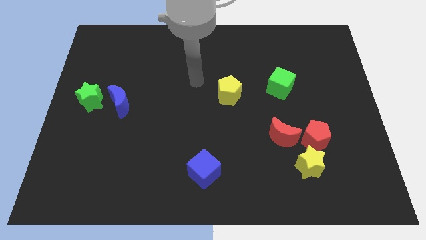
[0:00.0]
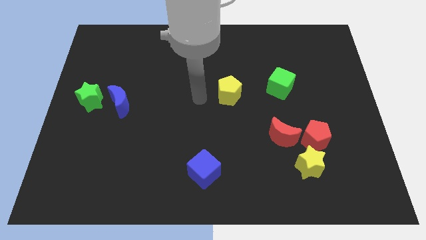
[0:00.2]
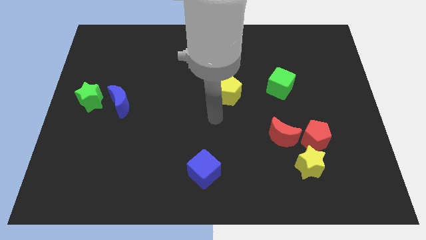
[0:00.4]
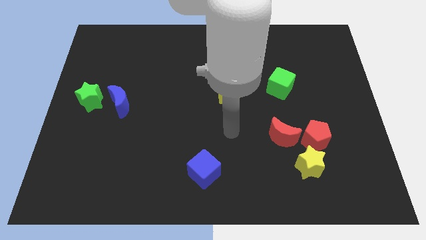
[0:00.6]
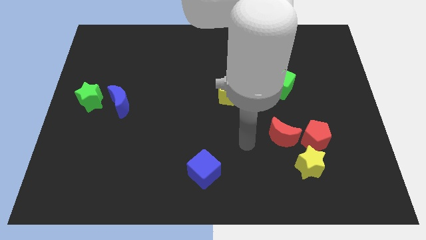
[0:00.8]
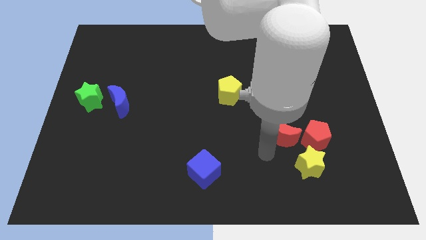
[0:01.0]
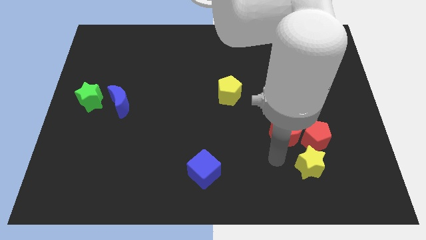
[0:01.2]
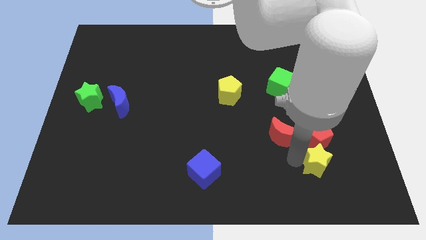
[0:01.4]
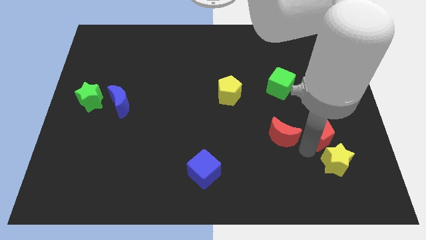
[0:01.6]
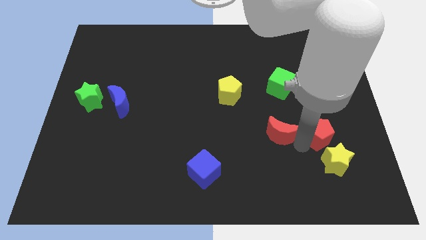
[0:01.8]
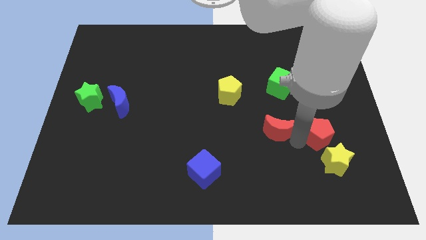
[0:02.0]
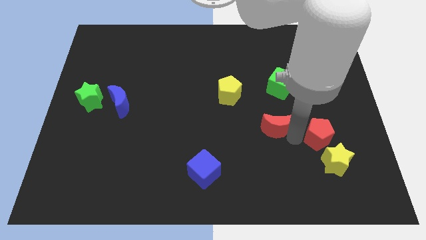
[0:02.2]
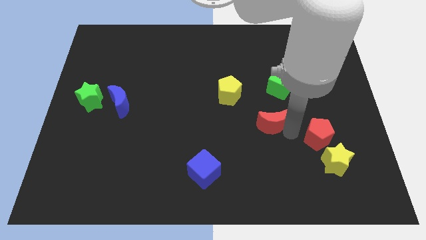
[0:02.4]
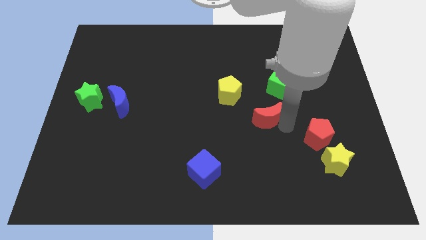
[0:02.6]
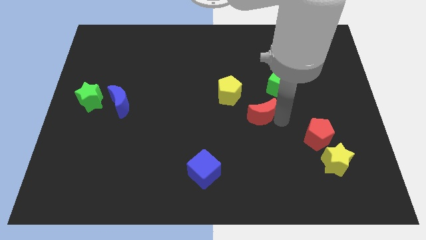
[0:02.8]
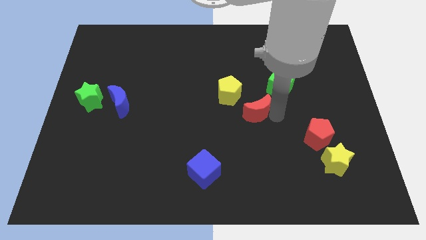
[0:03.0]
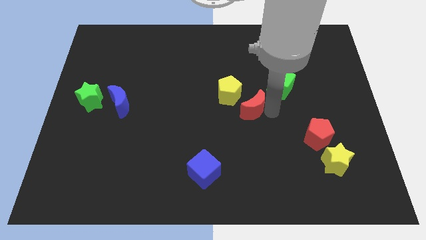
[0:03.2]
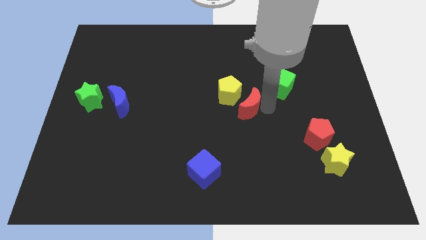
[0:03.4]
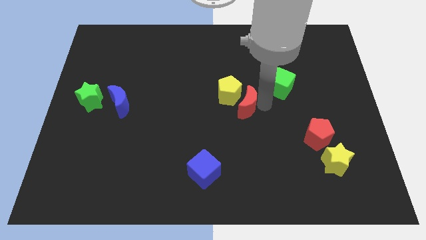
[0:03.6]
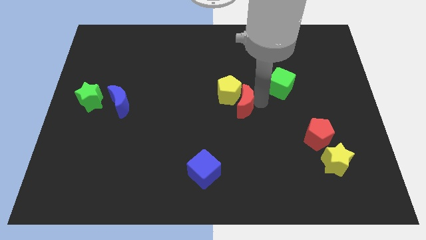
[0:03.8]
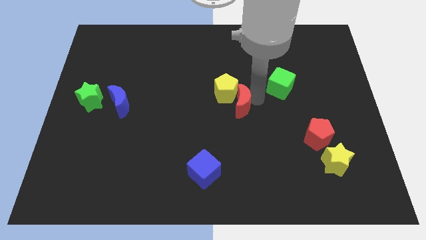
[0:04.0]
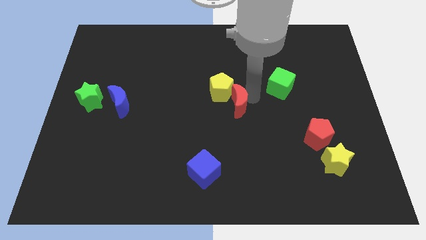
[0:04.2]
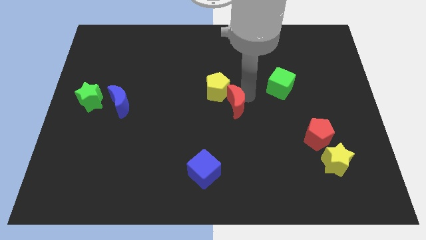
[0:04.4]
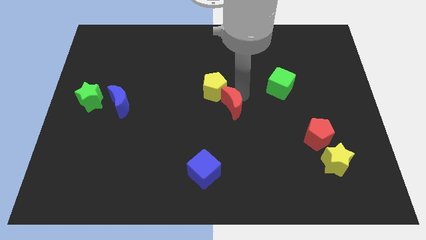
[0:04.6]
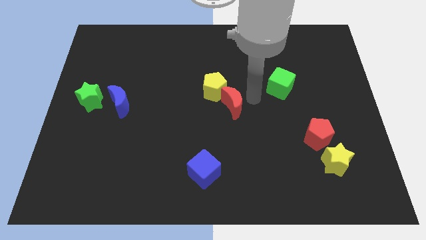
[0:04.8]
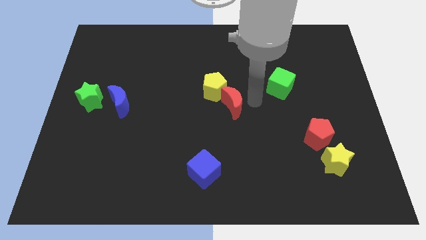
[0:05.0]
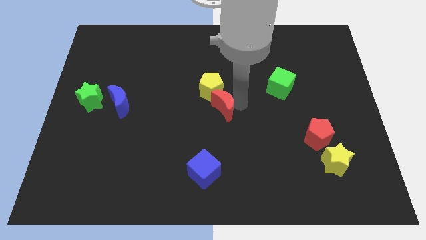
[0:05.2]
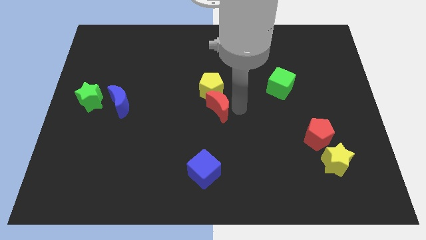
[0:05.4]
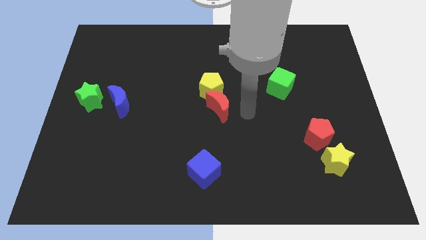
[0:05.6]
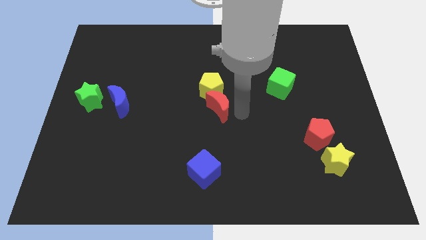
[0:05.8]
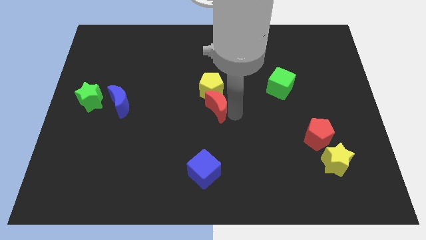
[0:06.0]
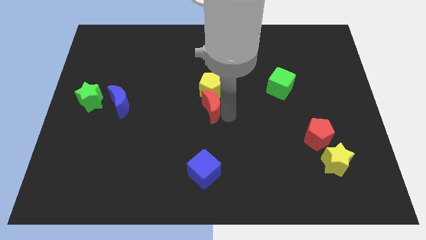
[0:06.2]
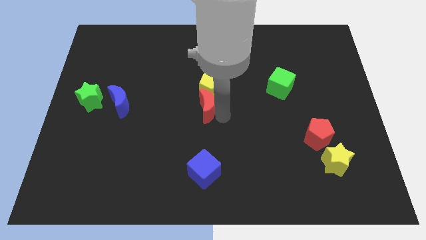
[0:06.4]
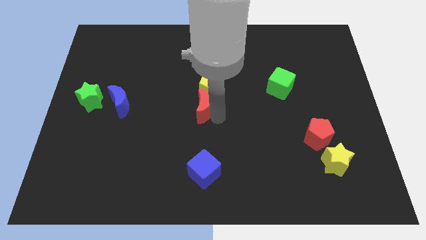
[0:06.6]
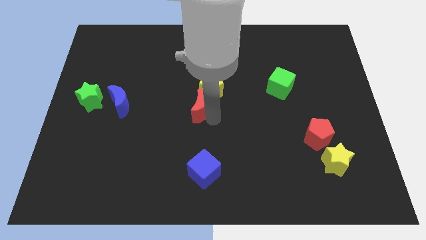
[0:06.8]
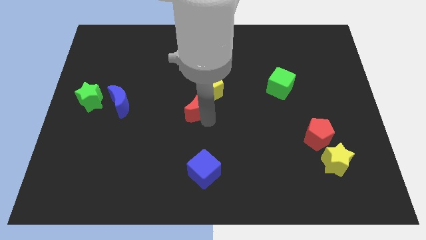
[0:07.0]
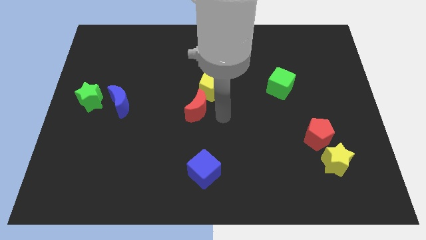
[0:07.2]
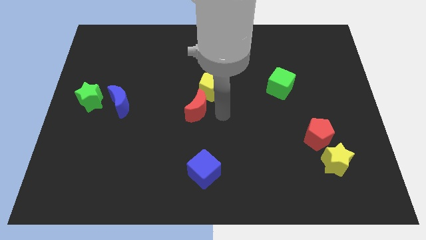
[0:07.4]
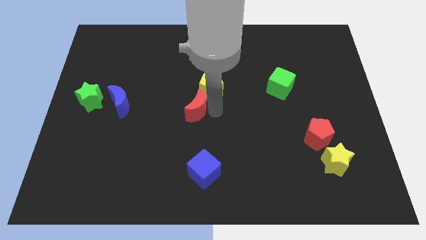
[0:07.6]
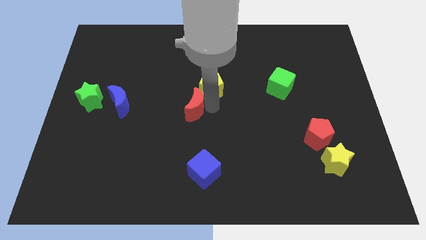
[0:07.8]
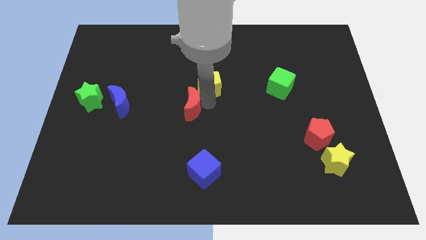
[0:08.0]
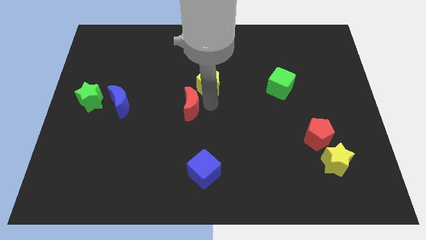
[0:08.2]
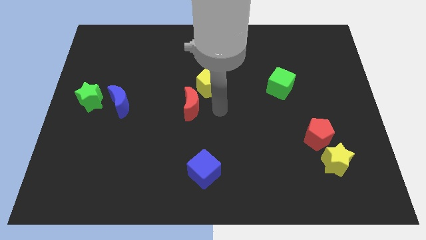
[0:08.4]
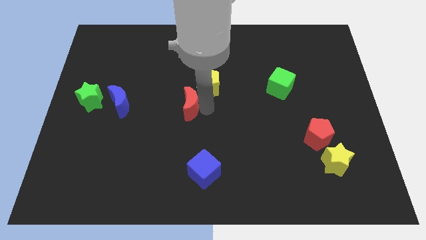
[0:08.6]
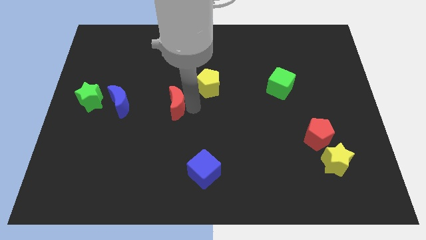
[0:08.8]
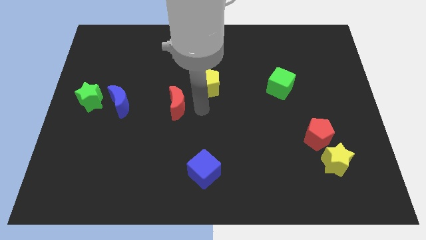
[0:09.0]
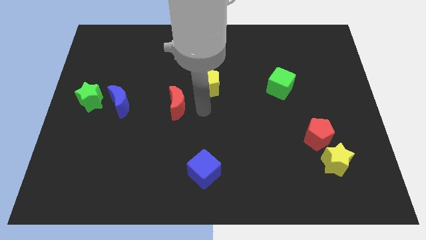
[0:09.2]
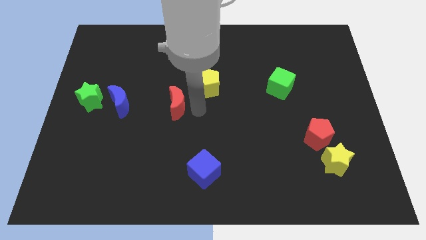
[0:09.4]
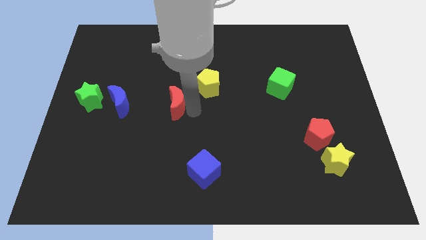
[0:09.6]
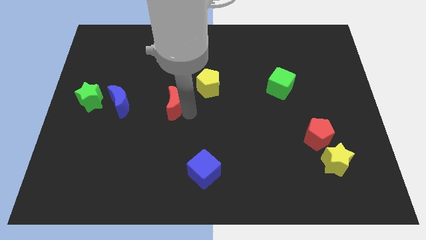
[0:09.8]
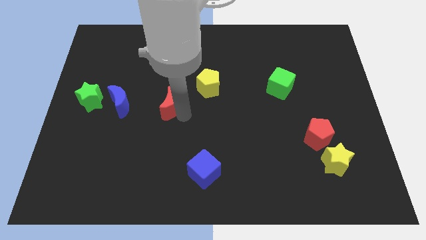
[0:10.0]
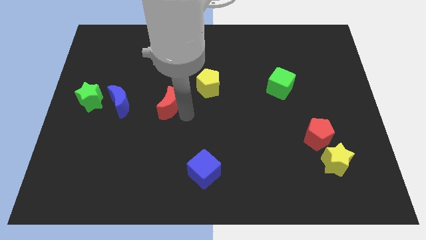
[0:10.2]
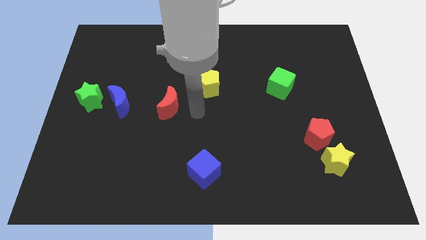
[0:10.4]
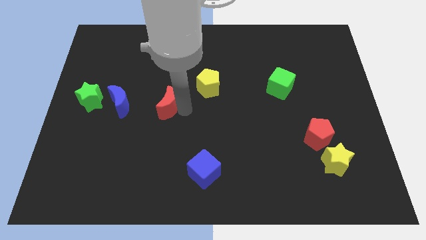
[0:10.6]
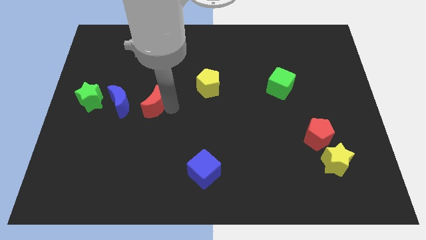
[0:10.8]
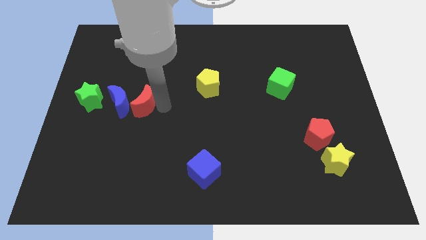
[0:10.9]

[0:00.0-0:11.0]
push the red moon towards the blue moon
